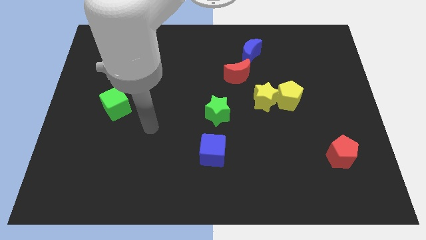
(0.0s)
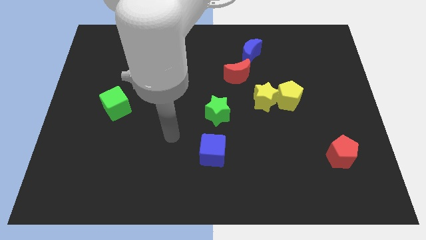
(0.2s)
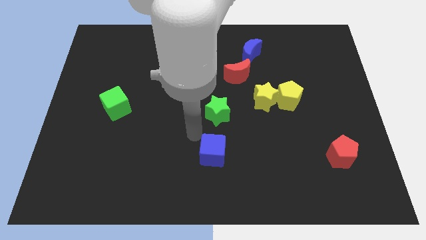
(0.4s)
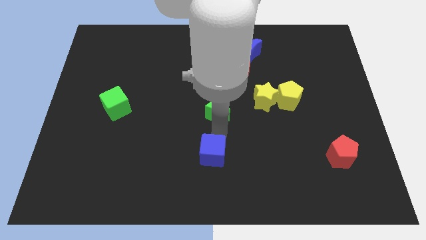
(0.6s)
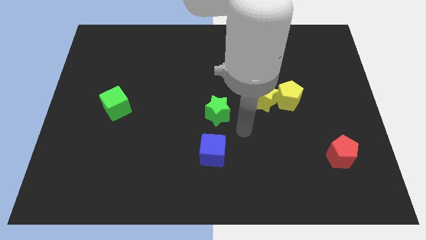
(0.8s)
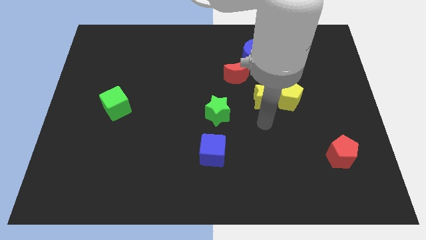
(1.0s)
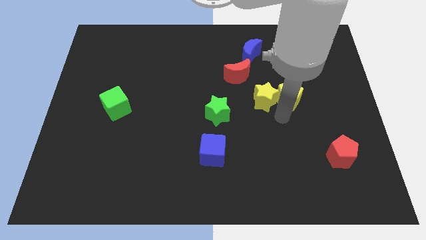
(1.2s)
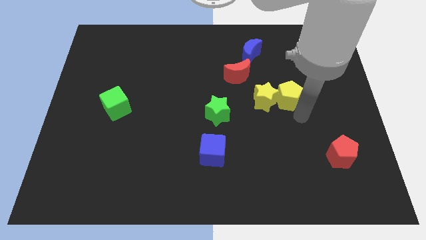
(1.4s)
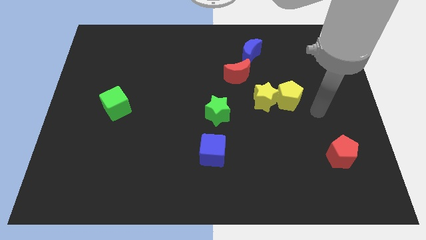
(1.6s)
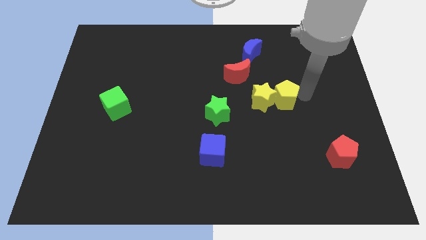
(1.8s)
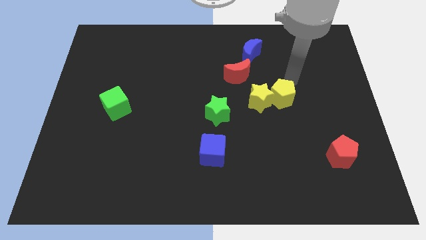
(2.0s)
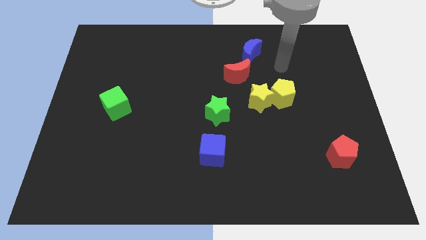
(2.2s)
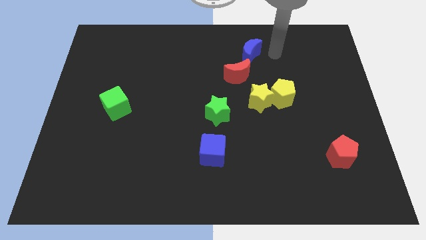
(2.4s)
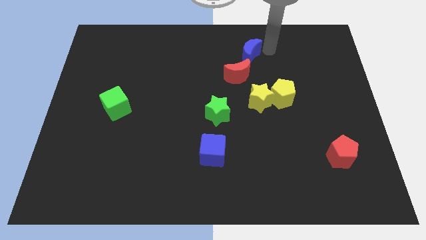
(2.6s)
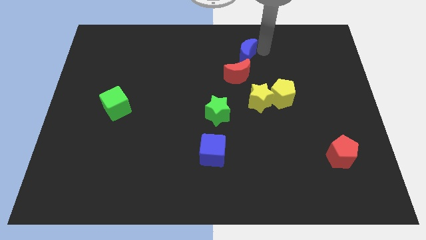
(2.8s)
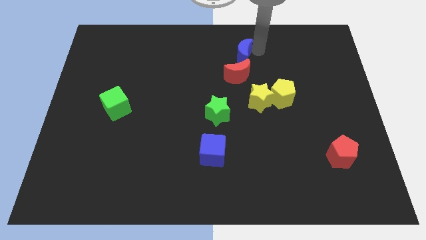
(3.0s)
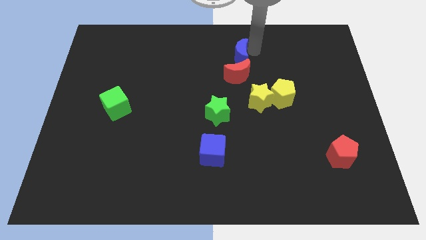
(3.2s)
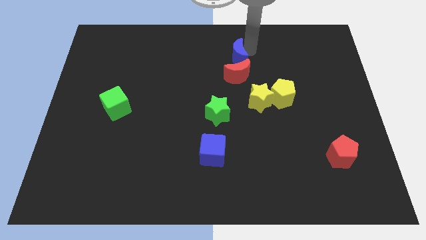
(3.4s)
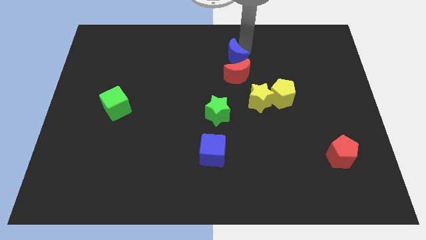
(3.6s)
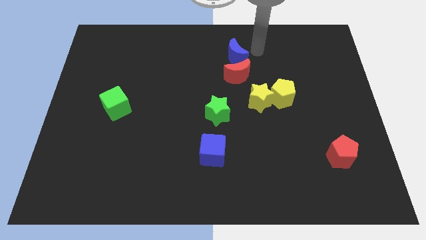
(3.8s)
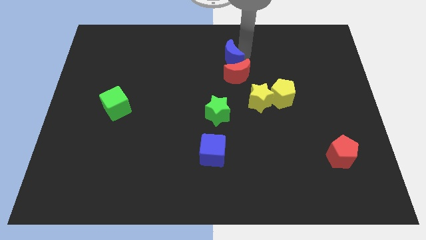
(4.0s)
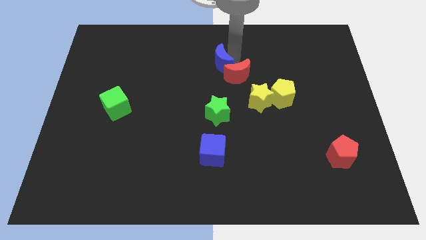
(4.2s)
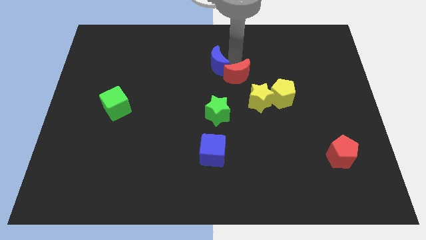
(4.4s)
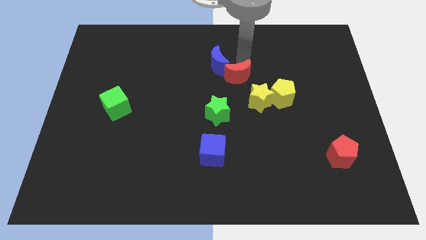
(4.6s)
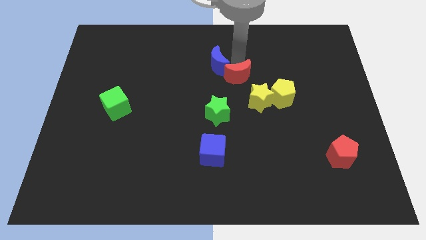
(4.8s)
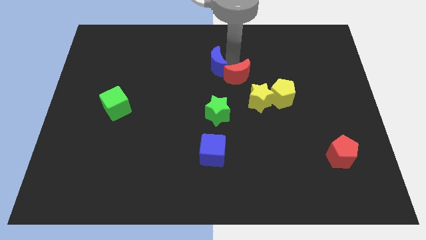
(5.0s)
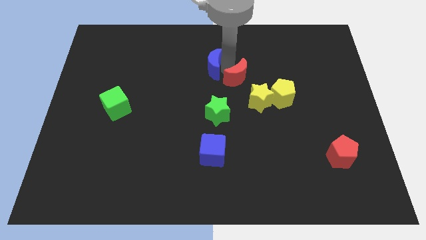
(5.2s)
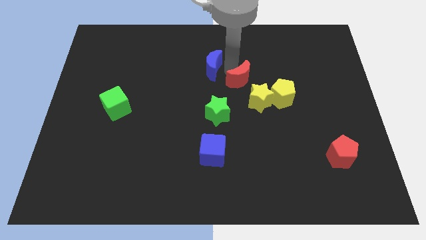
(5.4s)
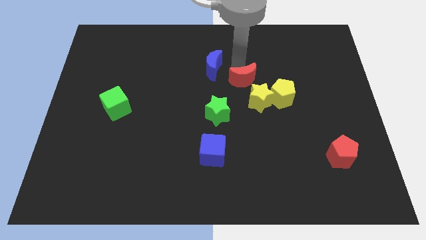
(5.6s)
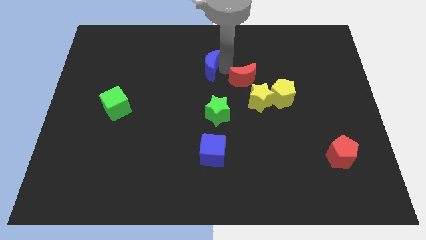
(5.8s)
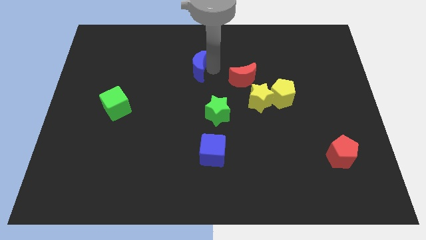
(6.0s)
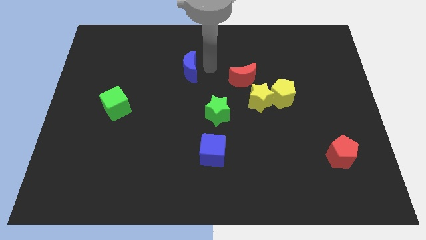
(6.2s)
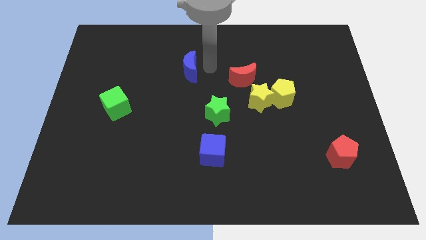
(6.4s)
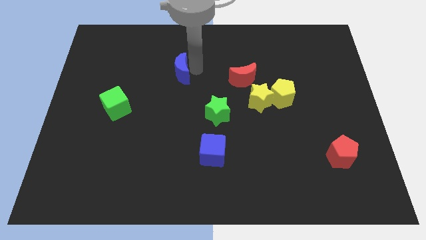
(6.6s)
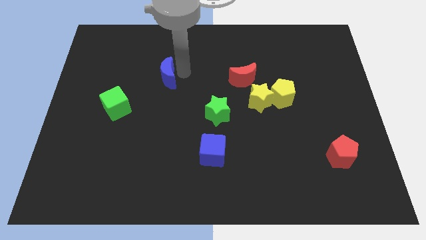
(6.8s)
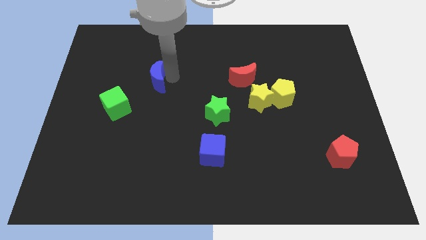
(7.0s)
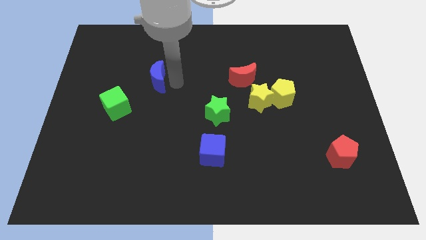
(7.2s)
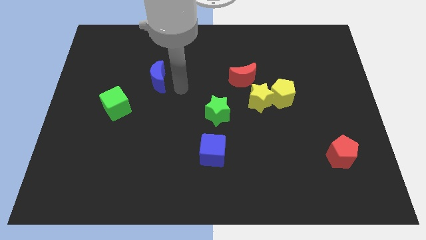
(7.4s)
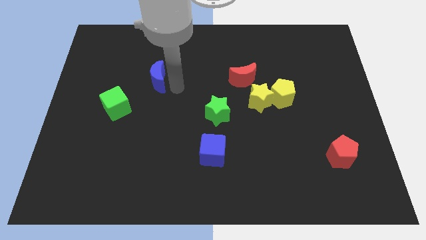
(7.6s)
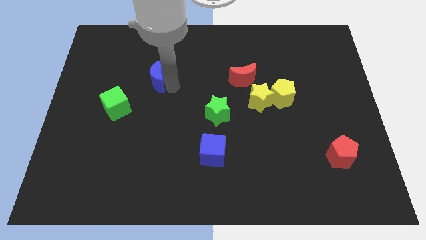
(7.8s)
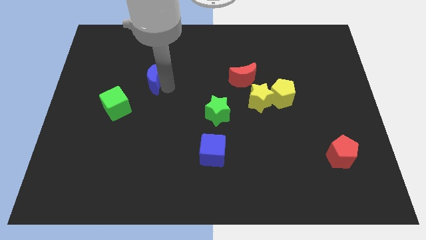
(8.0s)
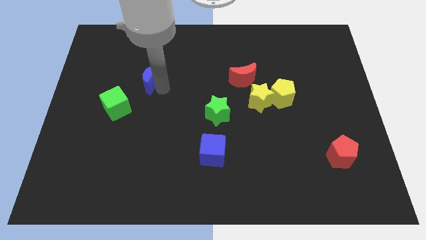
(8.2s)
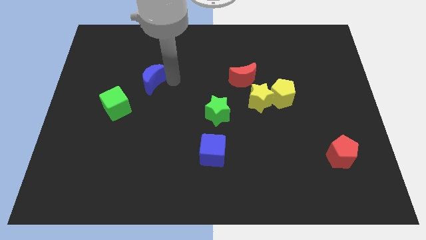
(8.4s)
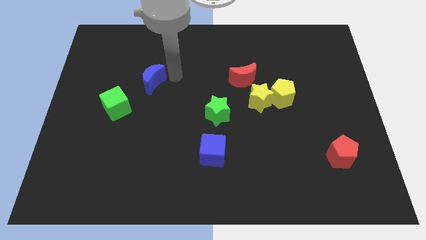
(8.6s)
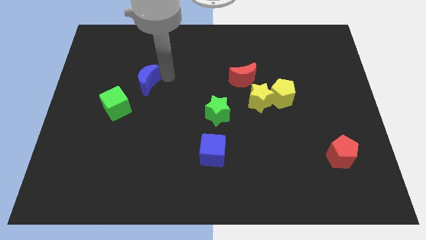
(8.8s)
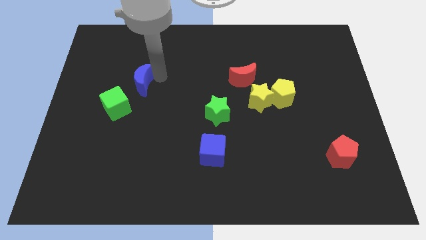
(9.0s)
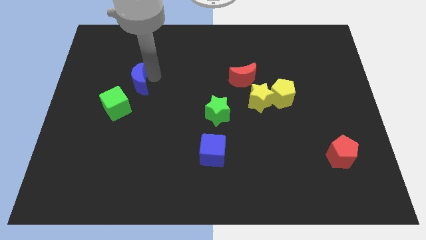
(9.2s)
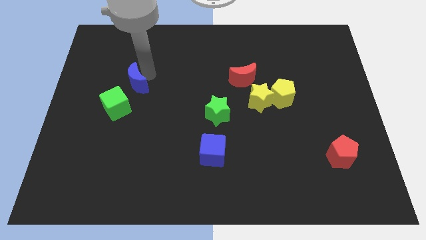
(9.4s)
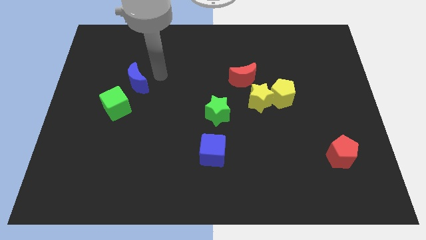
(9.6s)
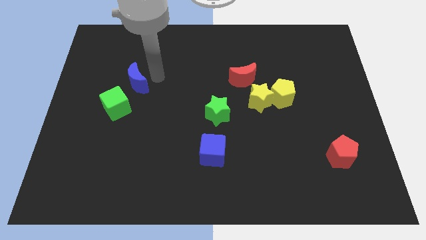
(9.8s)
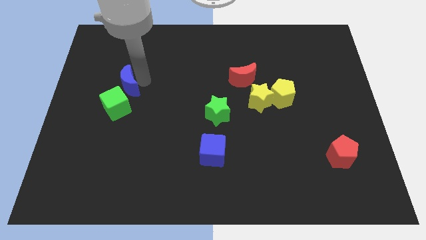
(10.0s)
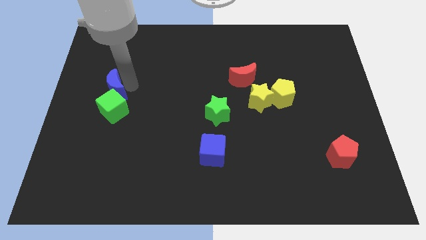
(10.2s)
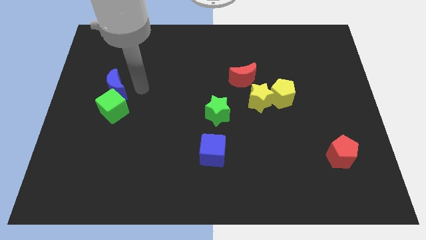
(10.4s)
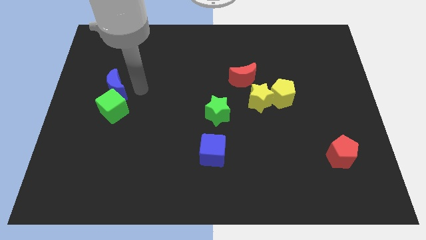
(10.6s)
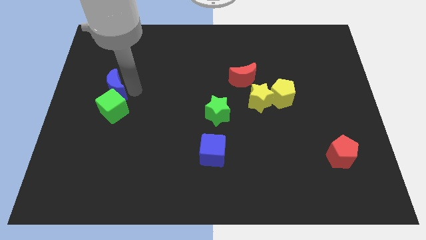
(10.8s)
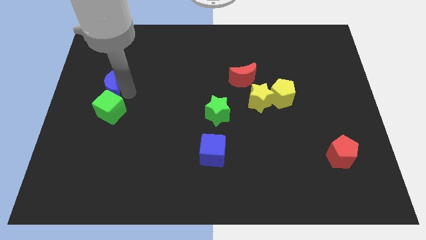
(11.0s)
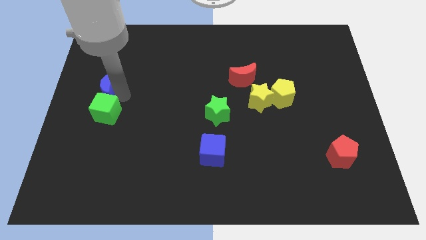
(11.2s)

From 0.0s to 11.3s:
put the blue moon to the center left
